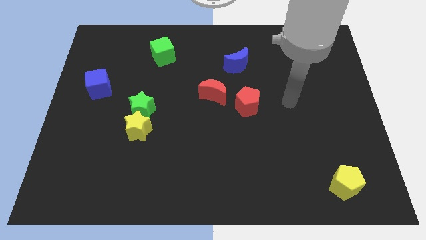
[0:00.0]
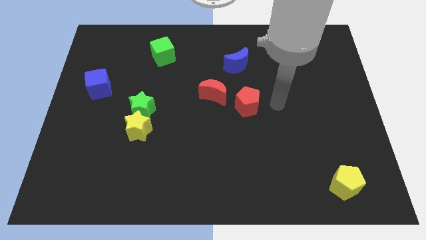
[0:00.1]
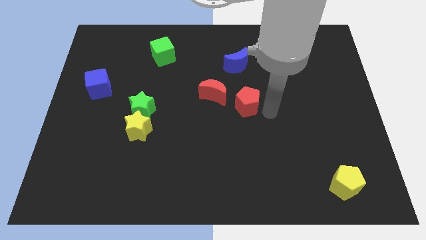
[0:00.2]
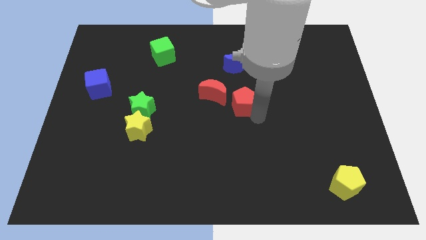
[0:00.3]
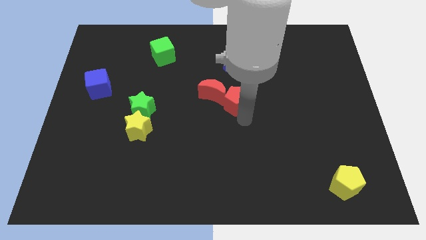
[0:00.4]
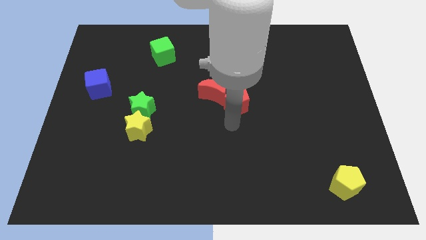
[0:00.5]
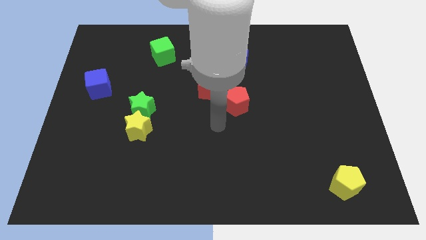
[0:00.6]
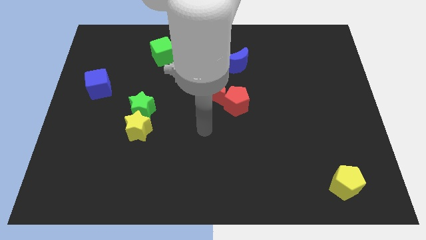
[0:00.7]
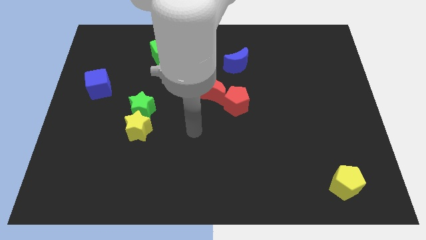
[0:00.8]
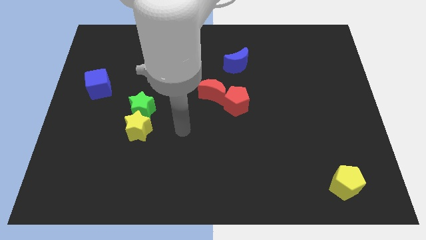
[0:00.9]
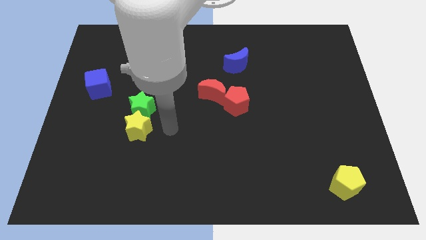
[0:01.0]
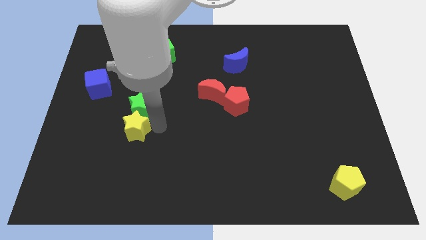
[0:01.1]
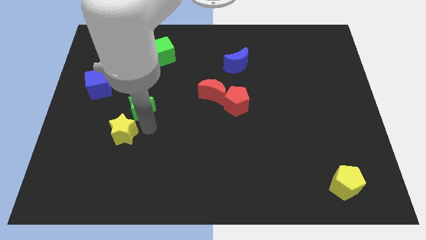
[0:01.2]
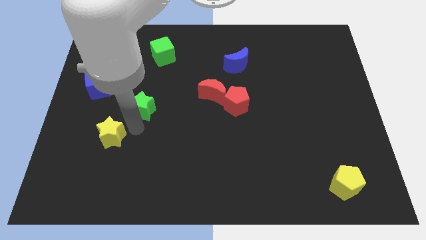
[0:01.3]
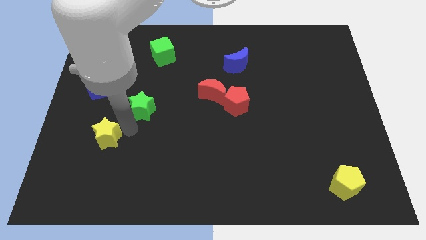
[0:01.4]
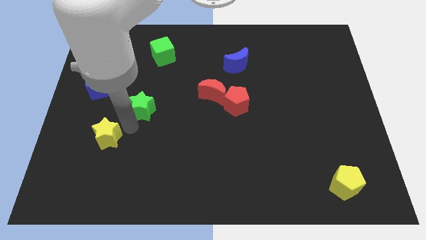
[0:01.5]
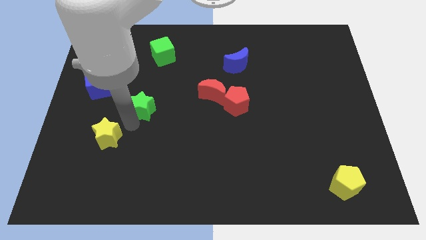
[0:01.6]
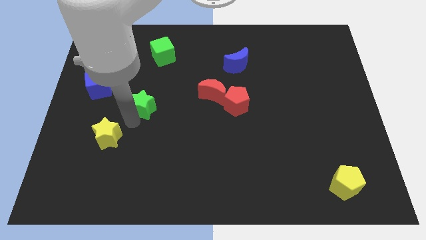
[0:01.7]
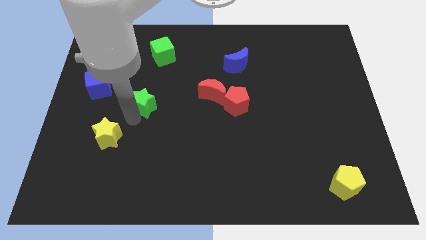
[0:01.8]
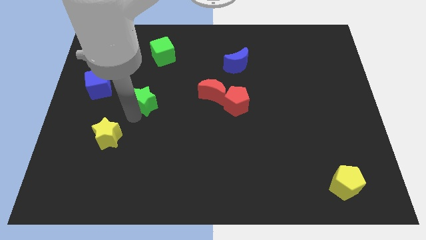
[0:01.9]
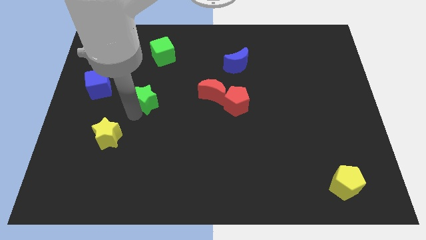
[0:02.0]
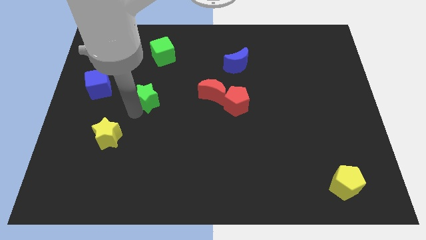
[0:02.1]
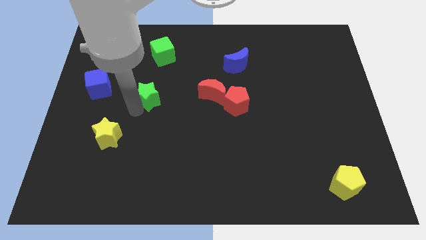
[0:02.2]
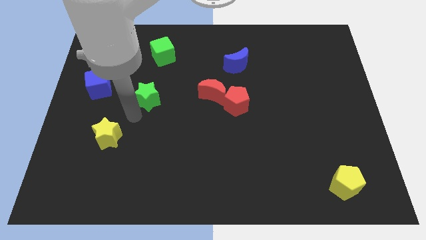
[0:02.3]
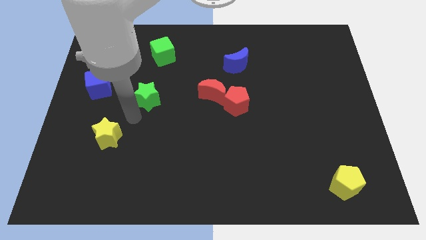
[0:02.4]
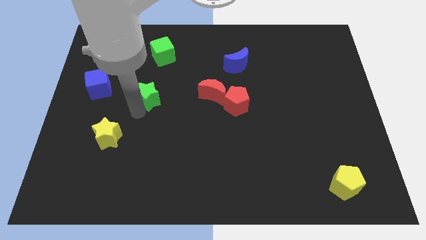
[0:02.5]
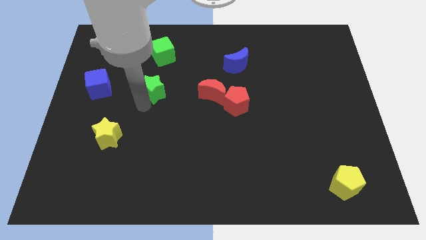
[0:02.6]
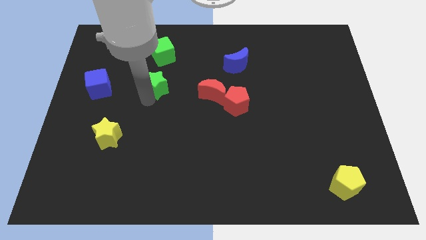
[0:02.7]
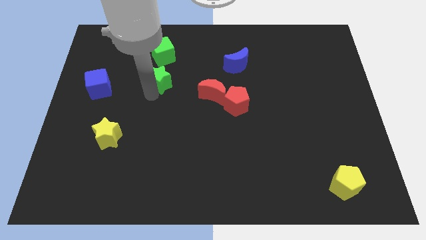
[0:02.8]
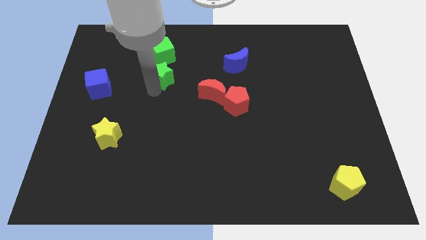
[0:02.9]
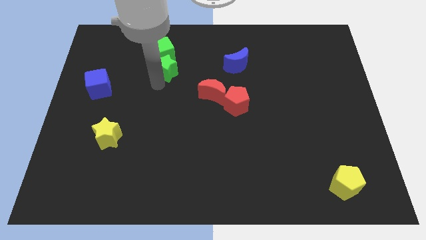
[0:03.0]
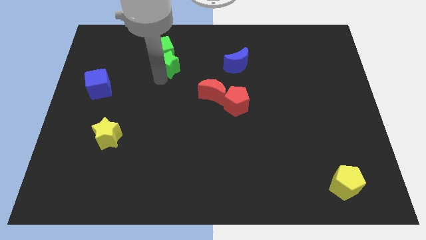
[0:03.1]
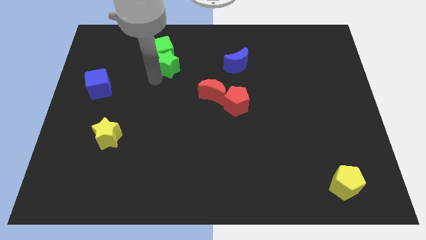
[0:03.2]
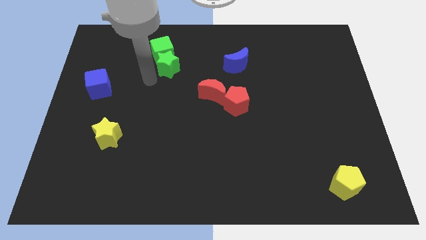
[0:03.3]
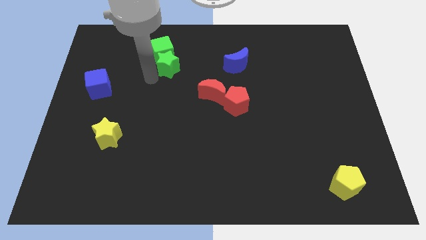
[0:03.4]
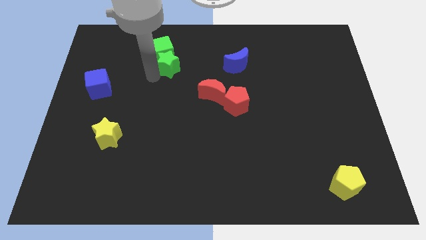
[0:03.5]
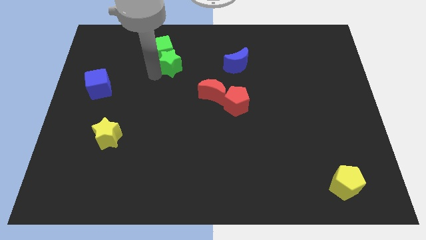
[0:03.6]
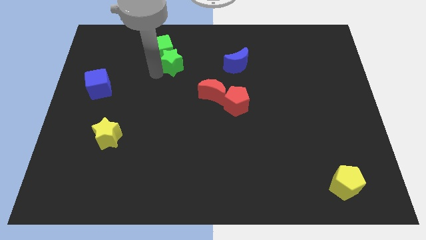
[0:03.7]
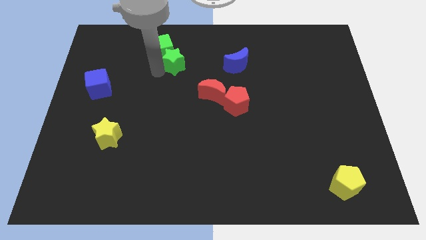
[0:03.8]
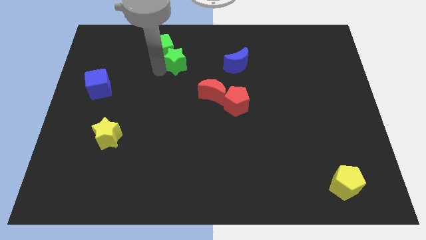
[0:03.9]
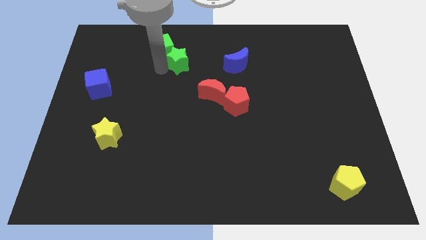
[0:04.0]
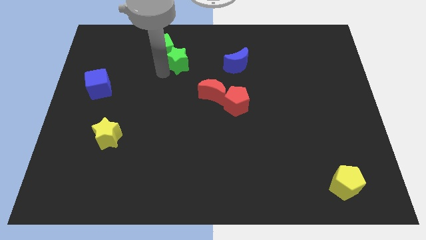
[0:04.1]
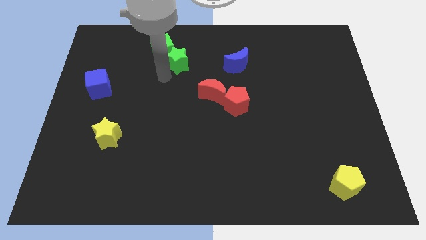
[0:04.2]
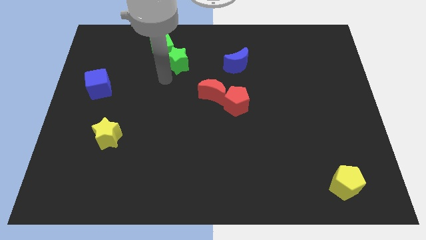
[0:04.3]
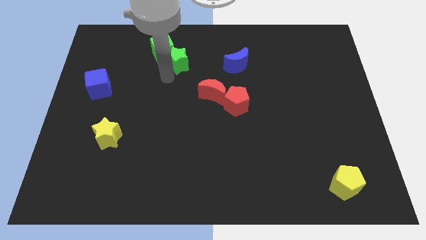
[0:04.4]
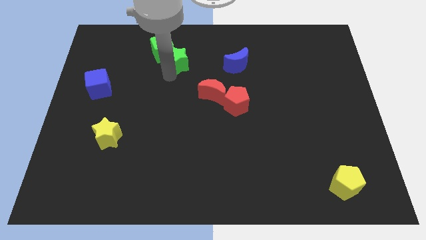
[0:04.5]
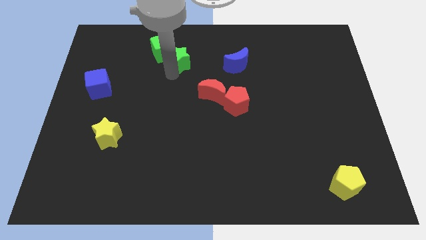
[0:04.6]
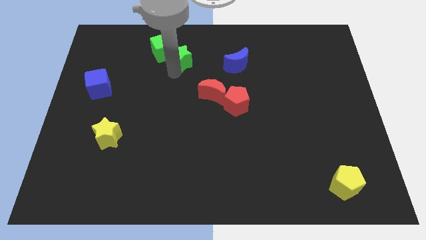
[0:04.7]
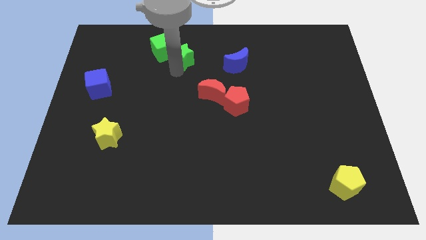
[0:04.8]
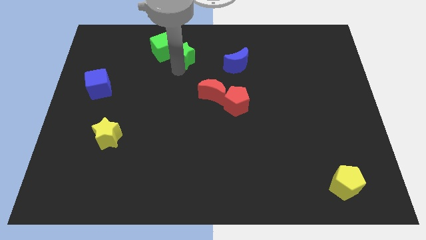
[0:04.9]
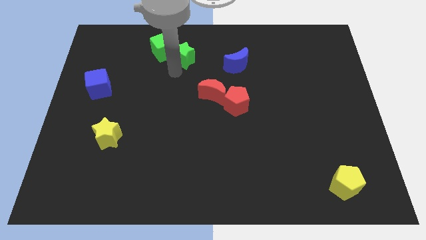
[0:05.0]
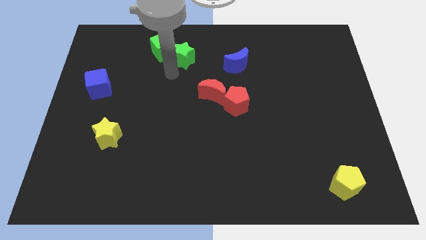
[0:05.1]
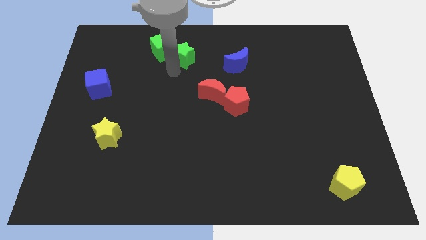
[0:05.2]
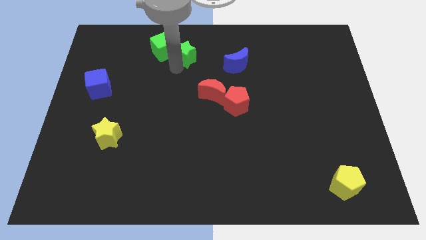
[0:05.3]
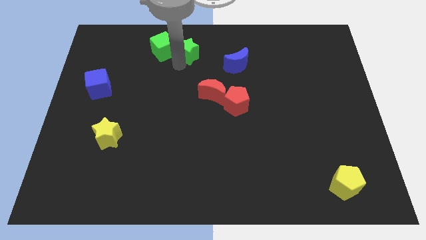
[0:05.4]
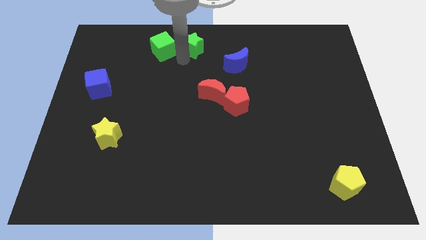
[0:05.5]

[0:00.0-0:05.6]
push the green star to the top side

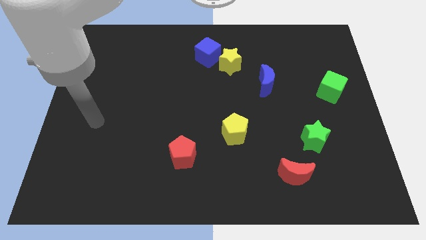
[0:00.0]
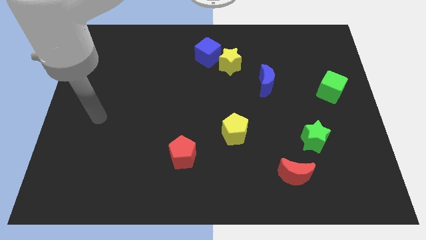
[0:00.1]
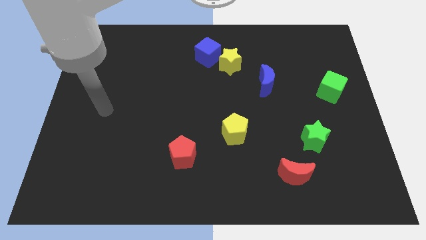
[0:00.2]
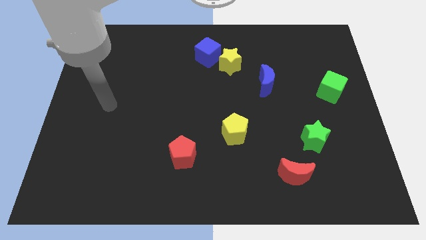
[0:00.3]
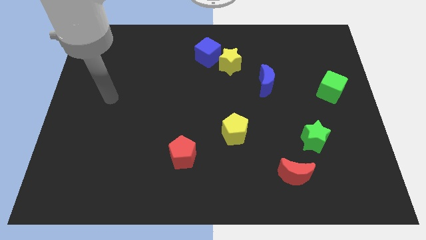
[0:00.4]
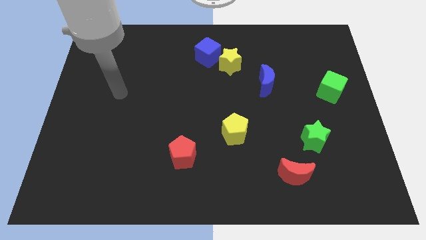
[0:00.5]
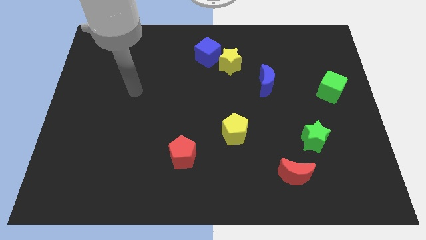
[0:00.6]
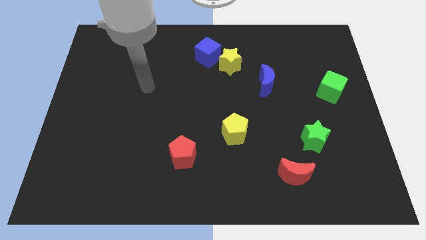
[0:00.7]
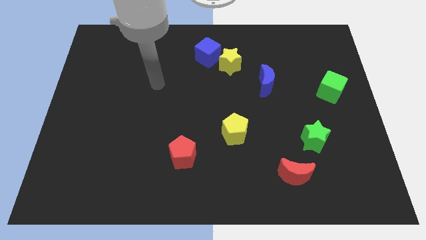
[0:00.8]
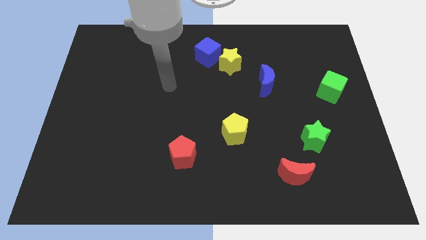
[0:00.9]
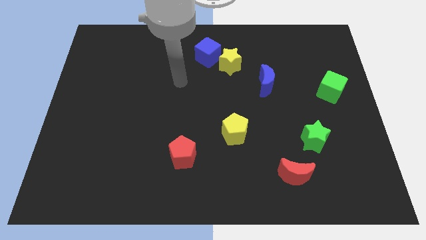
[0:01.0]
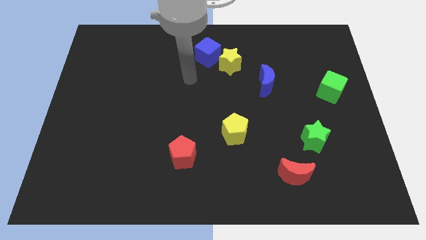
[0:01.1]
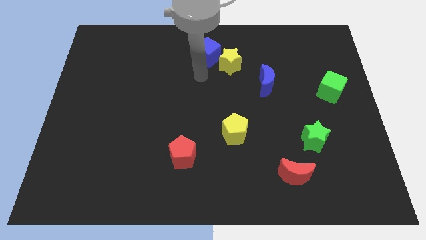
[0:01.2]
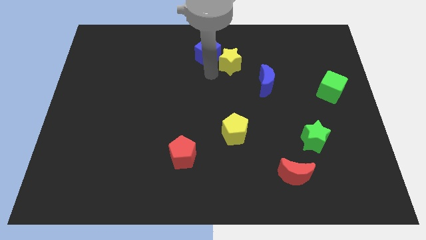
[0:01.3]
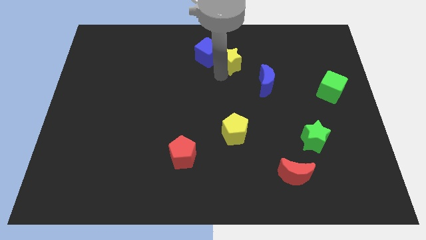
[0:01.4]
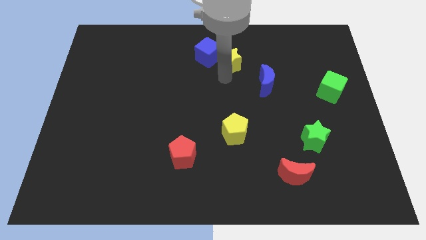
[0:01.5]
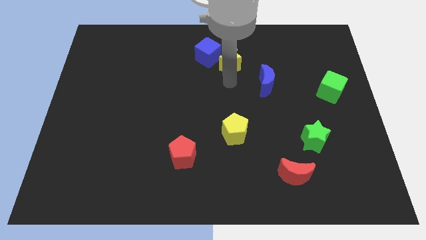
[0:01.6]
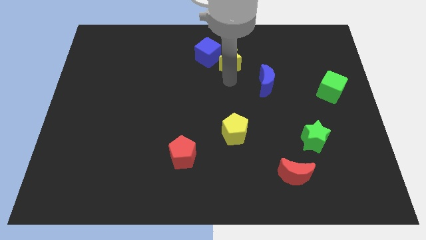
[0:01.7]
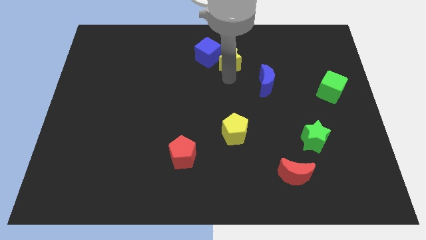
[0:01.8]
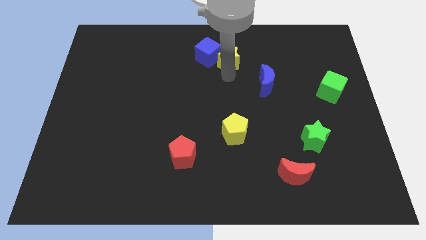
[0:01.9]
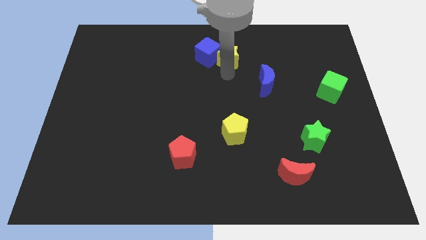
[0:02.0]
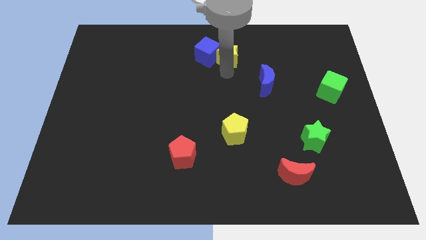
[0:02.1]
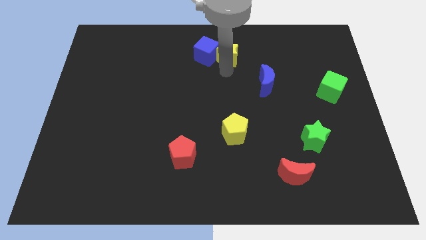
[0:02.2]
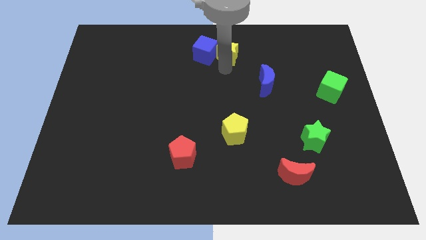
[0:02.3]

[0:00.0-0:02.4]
push the yellow star to the top
